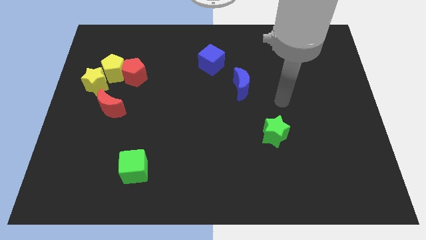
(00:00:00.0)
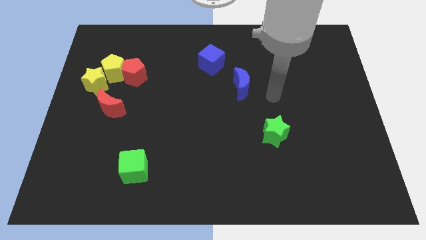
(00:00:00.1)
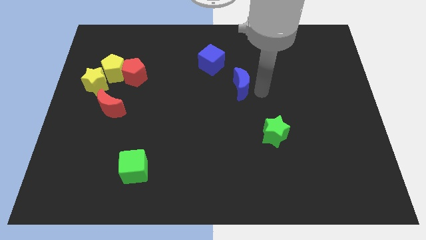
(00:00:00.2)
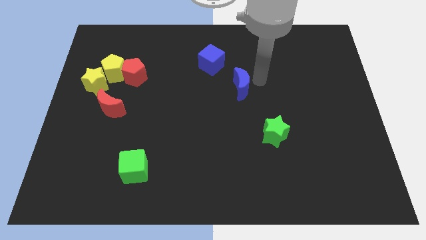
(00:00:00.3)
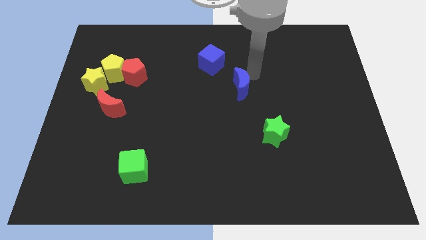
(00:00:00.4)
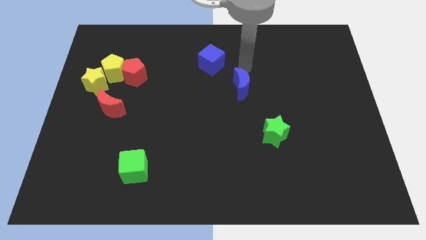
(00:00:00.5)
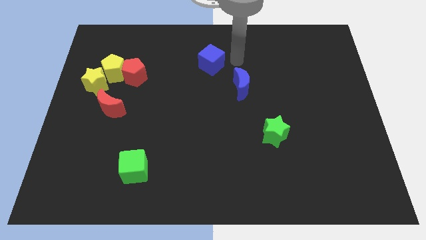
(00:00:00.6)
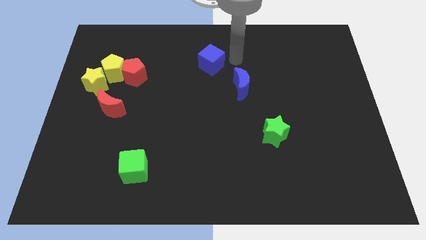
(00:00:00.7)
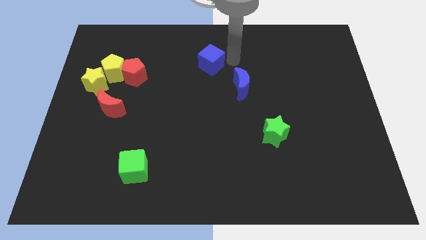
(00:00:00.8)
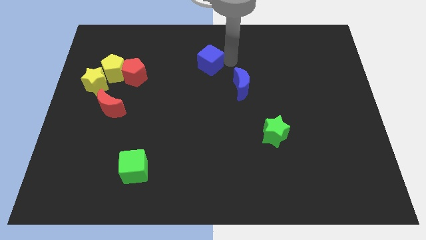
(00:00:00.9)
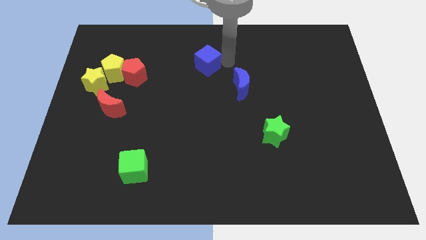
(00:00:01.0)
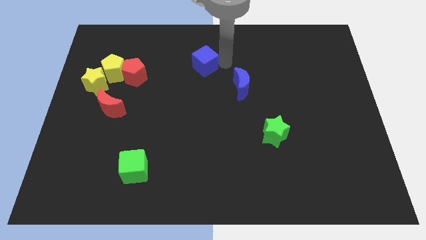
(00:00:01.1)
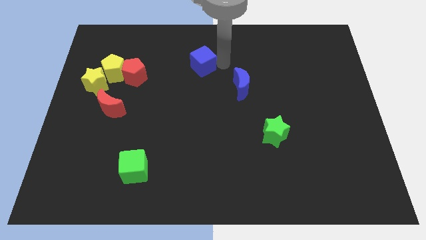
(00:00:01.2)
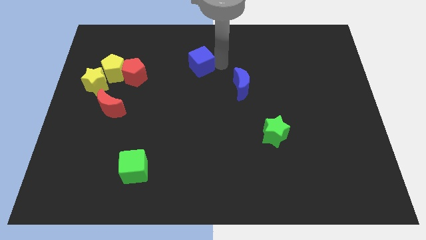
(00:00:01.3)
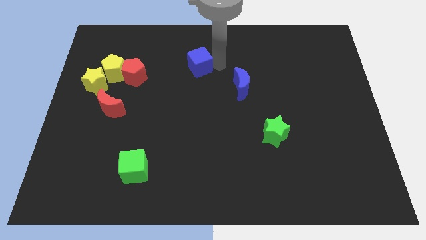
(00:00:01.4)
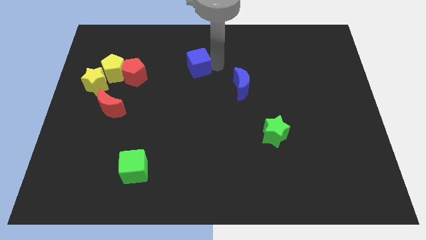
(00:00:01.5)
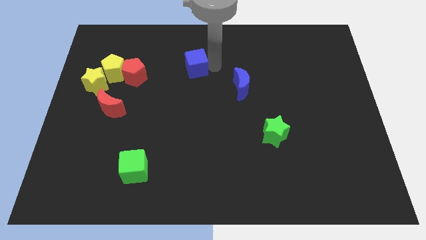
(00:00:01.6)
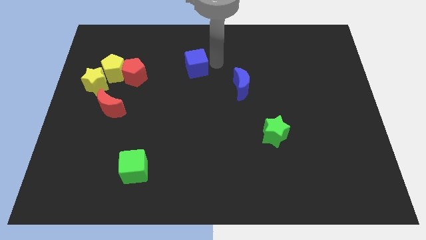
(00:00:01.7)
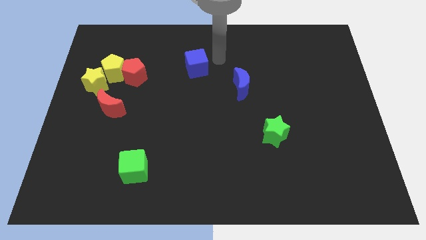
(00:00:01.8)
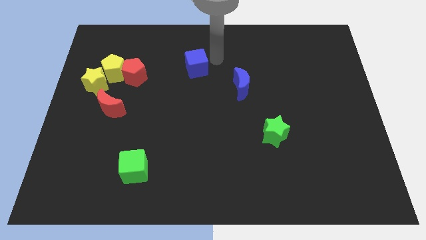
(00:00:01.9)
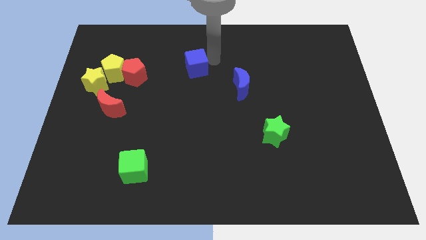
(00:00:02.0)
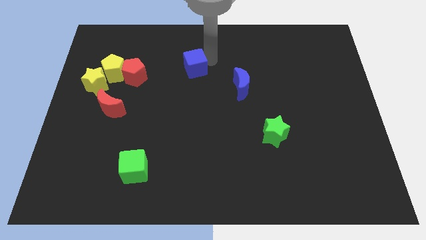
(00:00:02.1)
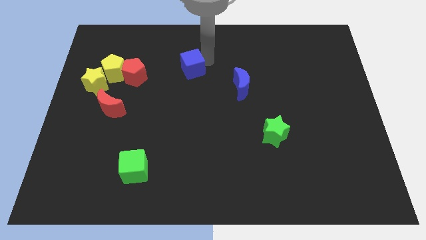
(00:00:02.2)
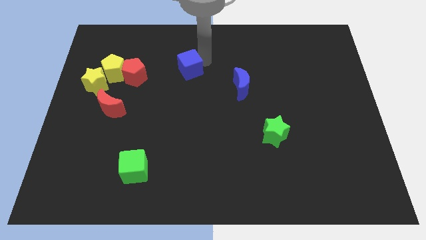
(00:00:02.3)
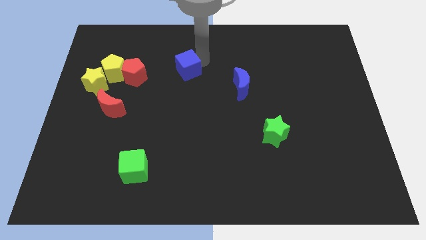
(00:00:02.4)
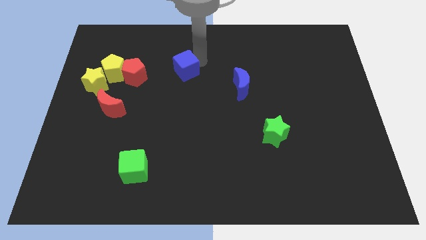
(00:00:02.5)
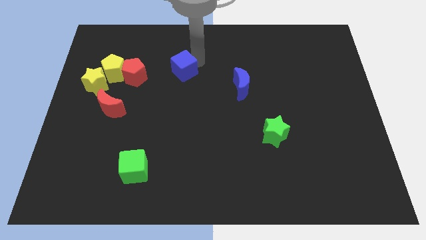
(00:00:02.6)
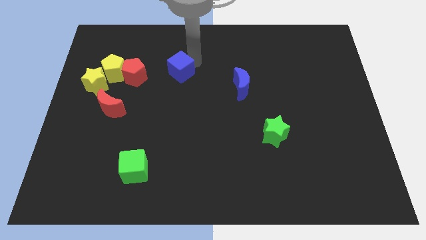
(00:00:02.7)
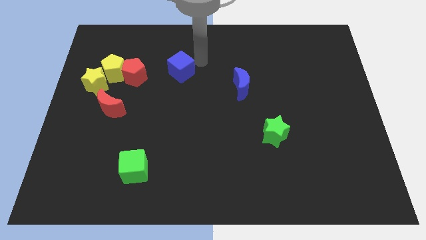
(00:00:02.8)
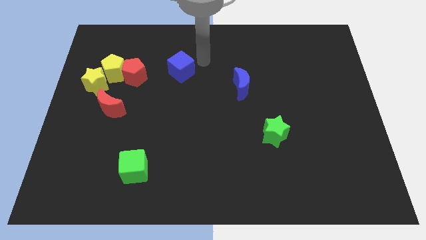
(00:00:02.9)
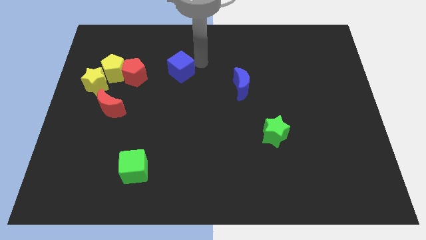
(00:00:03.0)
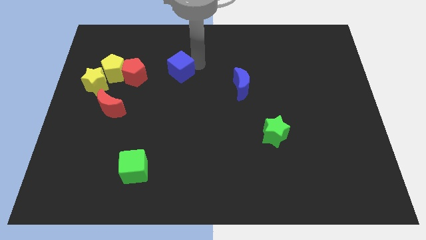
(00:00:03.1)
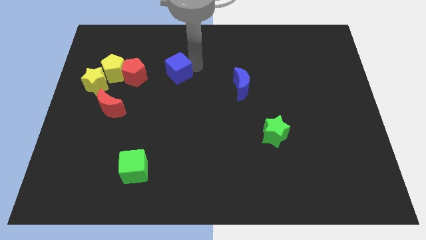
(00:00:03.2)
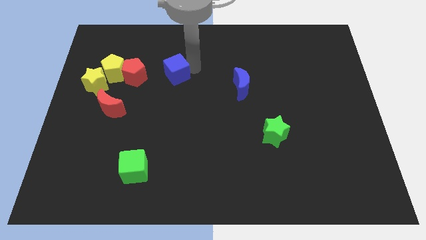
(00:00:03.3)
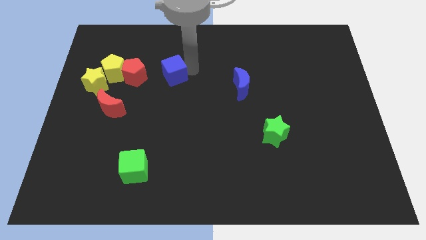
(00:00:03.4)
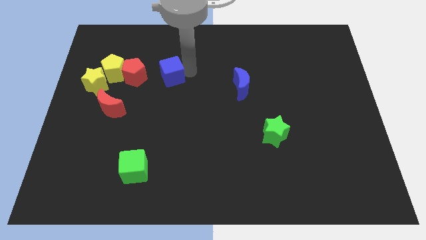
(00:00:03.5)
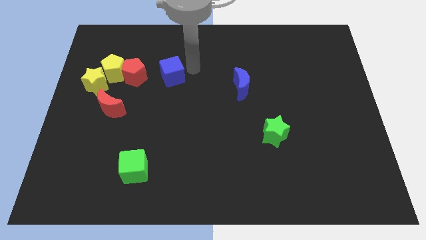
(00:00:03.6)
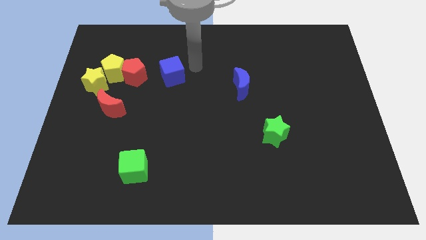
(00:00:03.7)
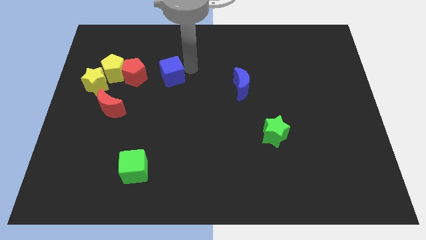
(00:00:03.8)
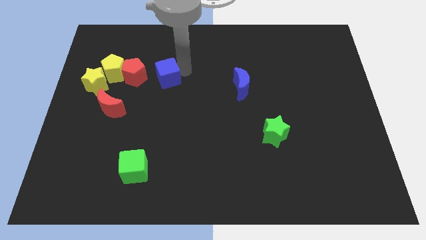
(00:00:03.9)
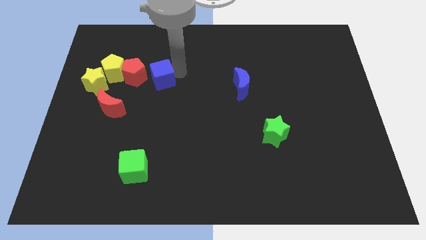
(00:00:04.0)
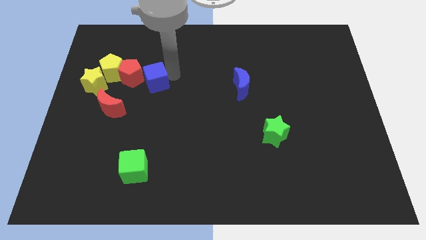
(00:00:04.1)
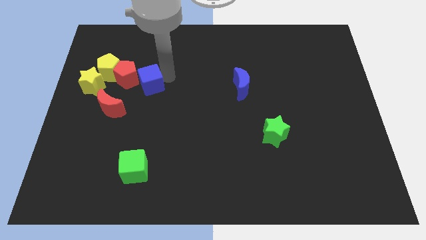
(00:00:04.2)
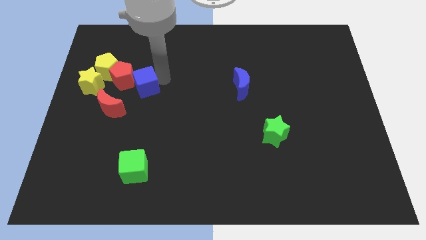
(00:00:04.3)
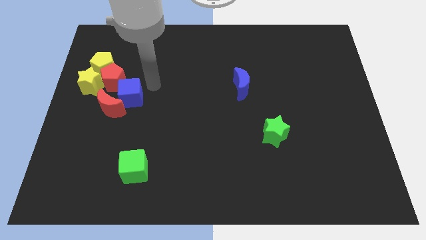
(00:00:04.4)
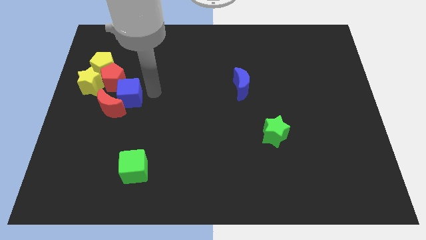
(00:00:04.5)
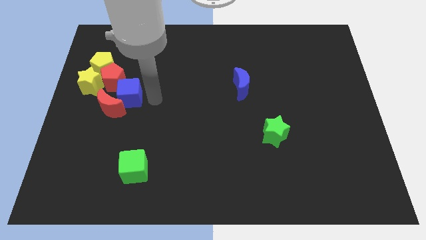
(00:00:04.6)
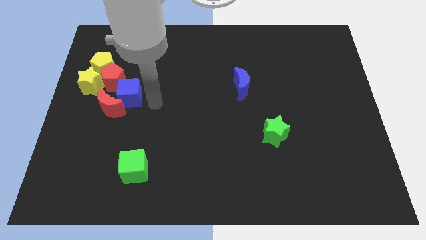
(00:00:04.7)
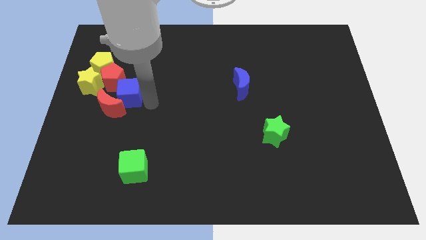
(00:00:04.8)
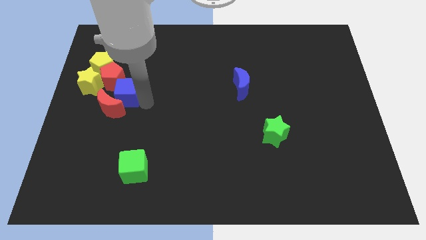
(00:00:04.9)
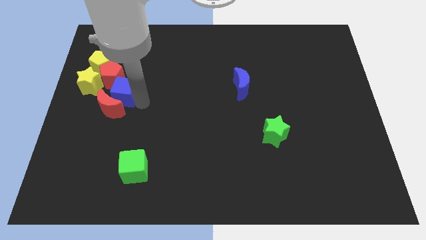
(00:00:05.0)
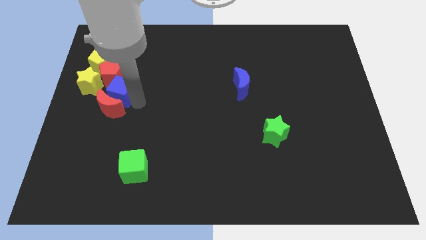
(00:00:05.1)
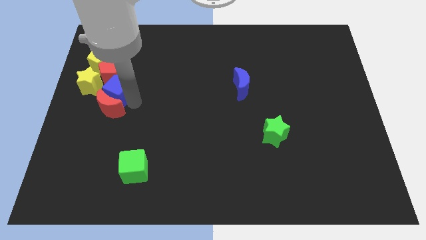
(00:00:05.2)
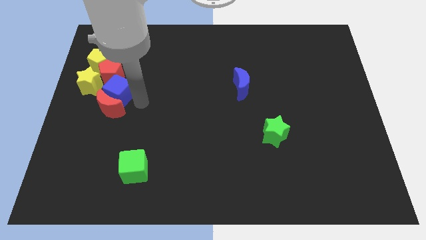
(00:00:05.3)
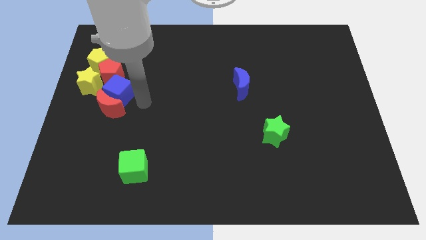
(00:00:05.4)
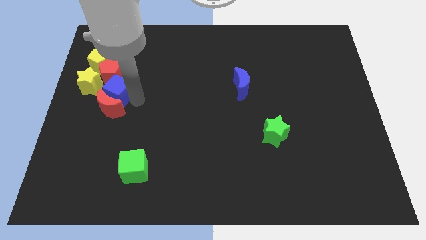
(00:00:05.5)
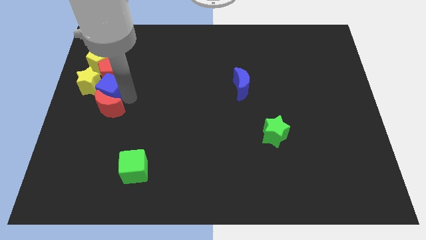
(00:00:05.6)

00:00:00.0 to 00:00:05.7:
push the blue cube close to the yellow star

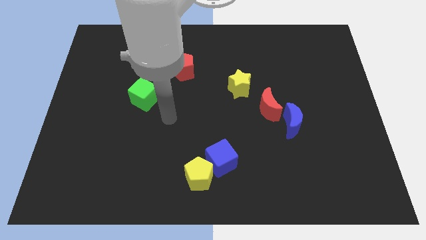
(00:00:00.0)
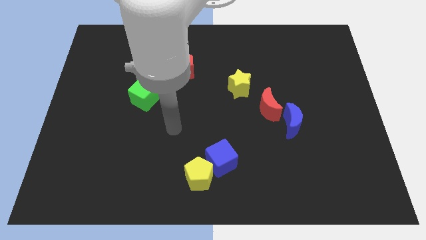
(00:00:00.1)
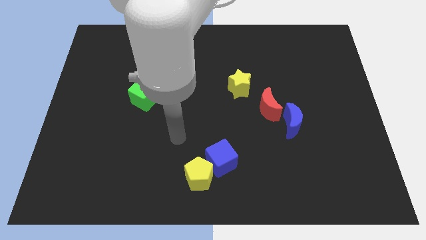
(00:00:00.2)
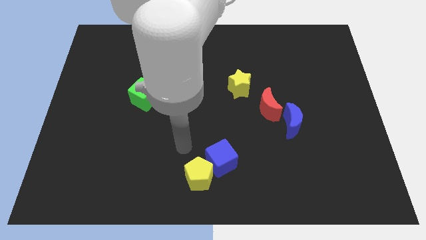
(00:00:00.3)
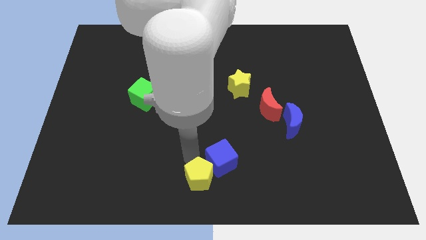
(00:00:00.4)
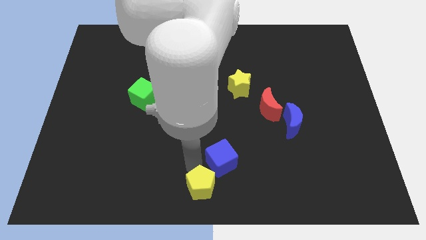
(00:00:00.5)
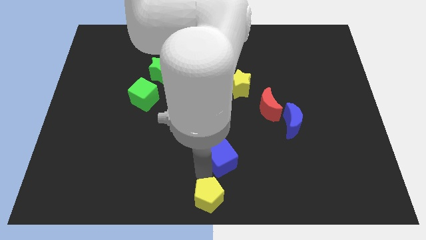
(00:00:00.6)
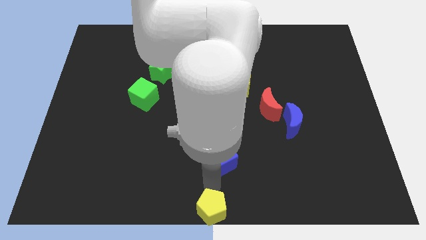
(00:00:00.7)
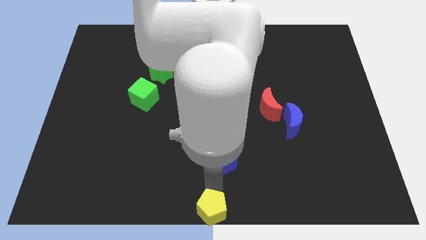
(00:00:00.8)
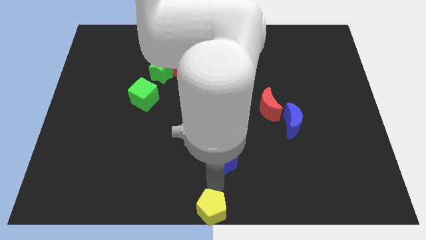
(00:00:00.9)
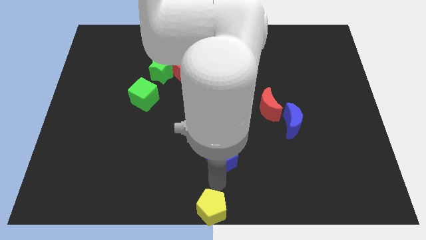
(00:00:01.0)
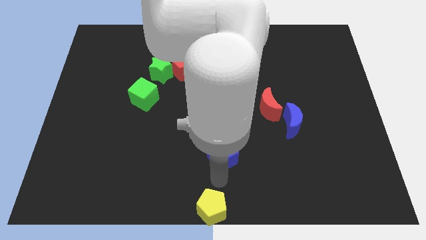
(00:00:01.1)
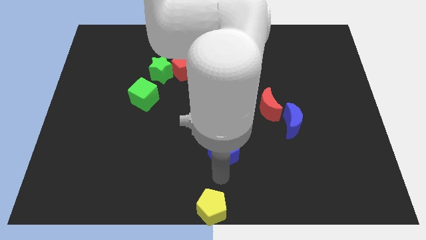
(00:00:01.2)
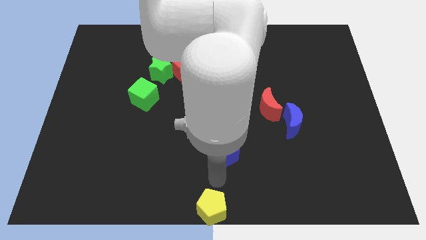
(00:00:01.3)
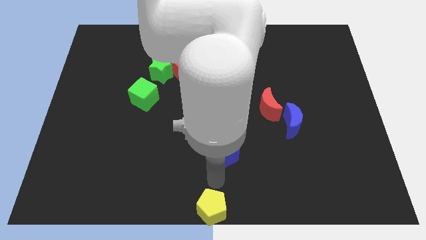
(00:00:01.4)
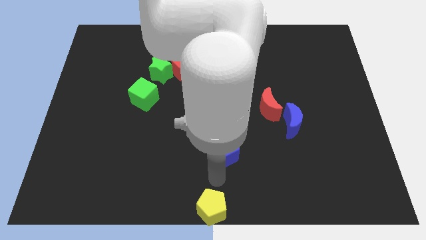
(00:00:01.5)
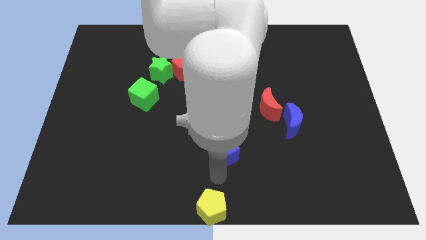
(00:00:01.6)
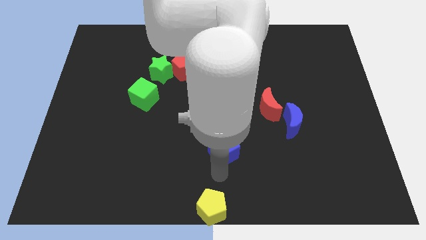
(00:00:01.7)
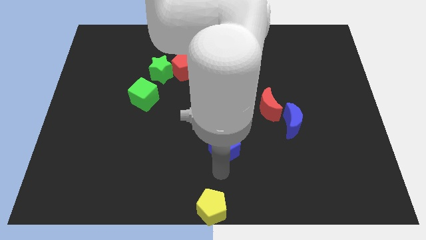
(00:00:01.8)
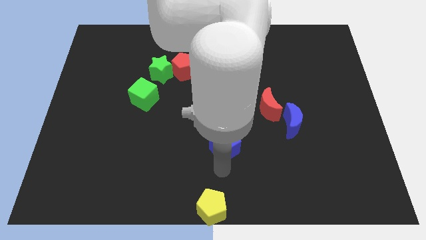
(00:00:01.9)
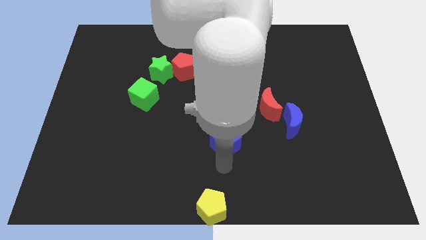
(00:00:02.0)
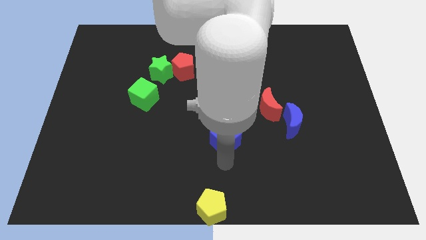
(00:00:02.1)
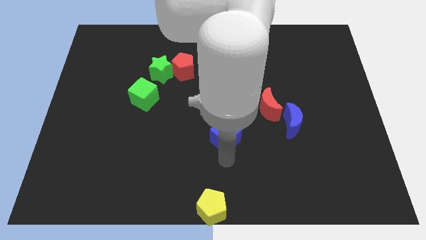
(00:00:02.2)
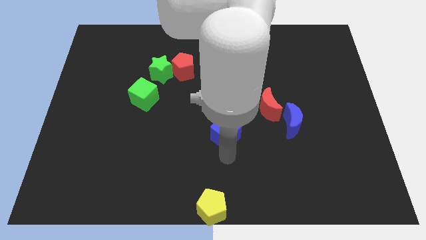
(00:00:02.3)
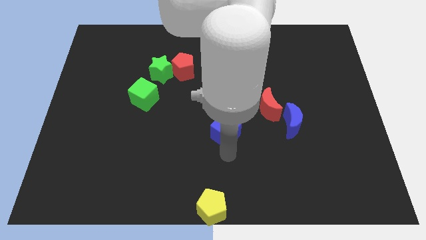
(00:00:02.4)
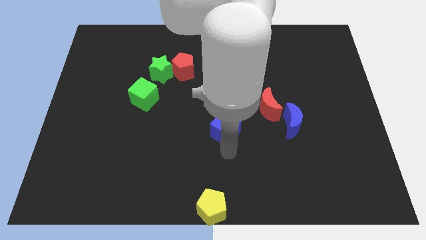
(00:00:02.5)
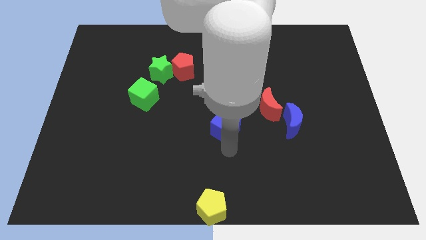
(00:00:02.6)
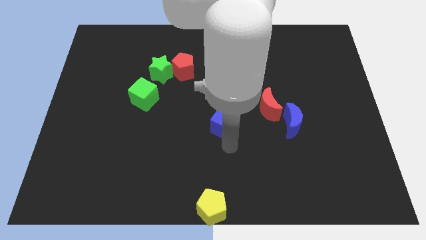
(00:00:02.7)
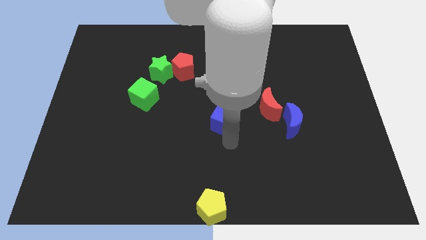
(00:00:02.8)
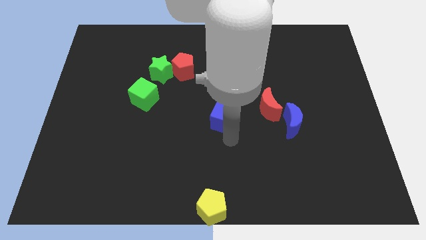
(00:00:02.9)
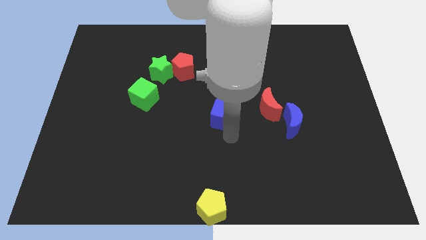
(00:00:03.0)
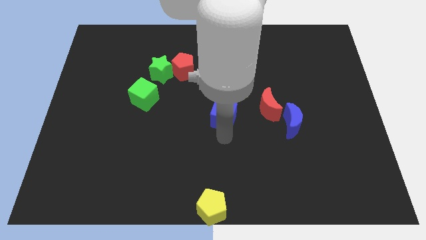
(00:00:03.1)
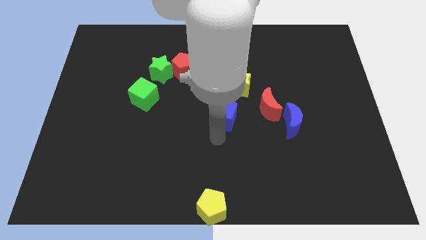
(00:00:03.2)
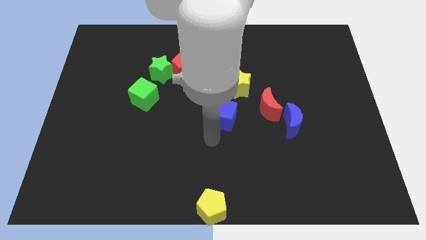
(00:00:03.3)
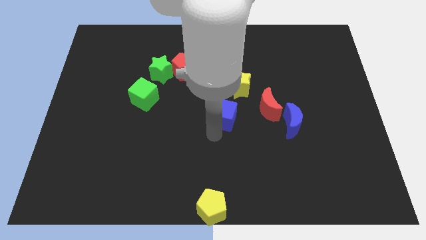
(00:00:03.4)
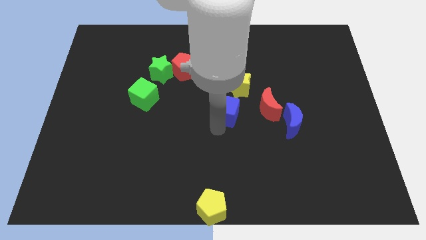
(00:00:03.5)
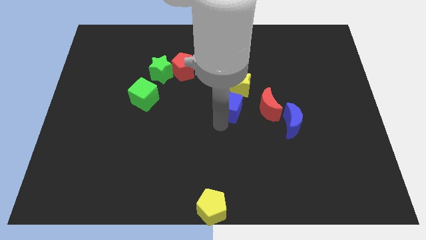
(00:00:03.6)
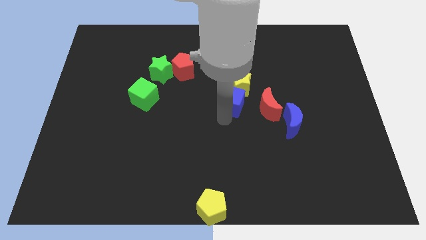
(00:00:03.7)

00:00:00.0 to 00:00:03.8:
slide the blue cube close to the yellow star
